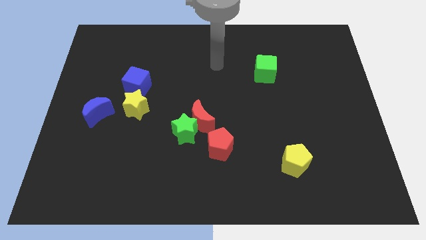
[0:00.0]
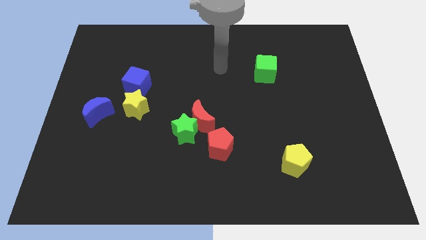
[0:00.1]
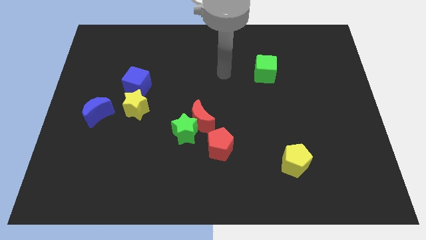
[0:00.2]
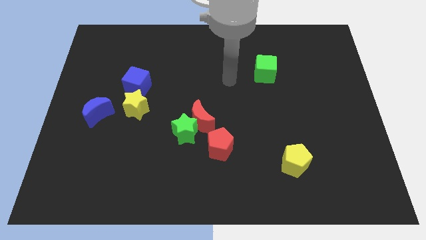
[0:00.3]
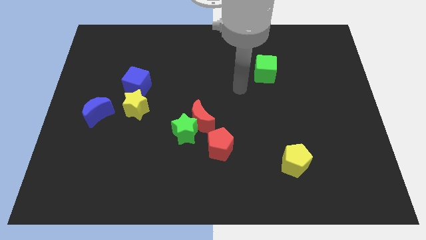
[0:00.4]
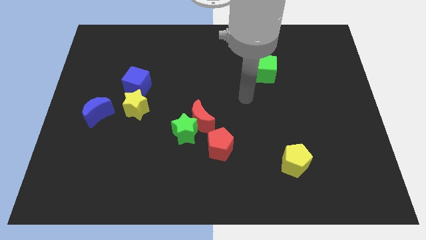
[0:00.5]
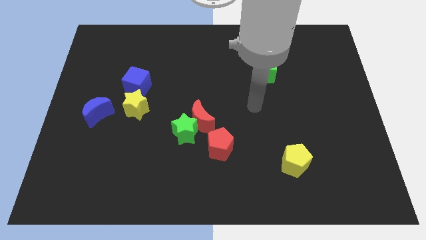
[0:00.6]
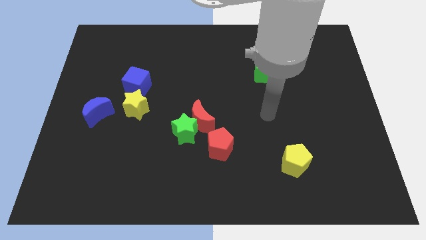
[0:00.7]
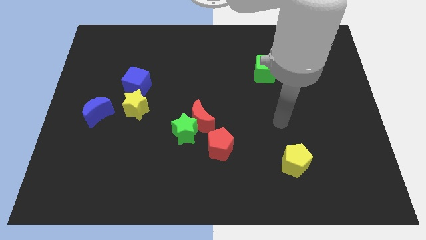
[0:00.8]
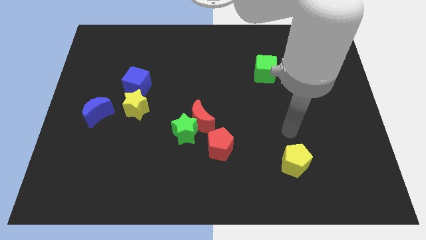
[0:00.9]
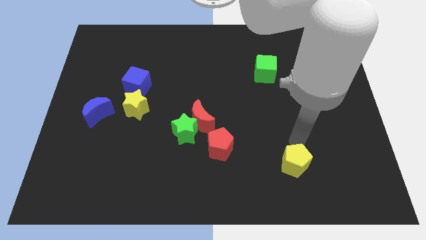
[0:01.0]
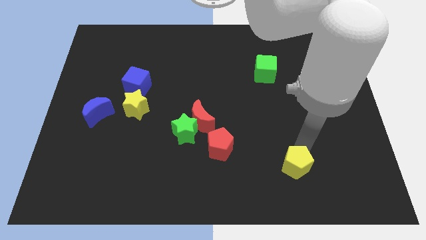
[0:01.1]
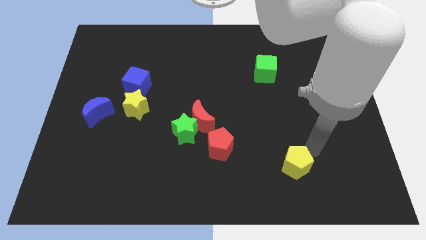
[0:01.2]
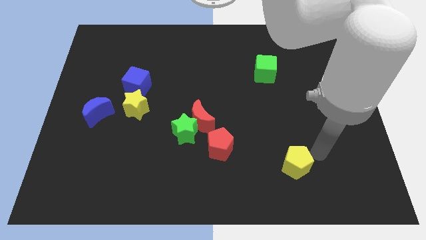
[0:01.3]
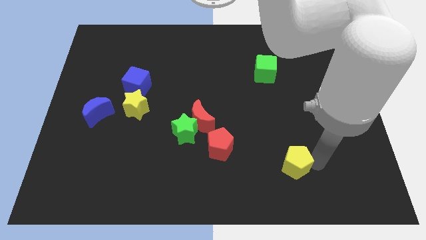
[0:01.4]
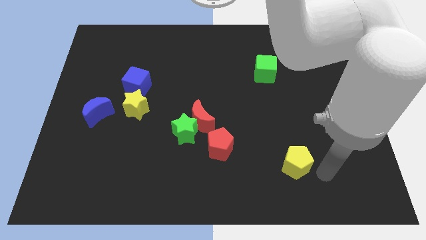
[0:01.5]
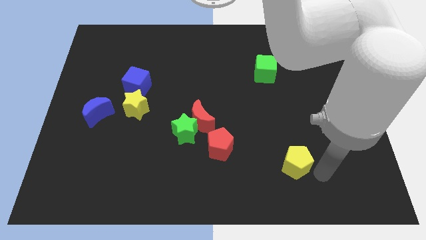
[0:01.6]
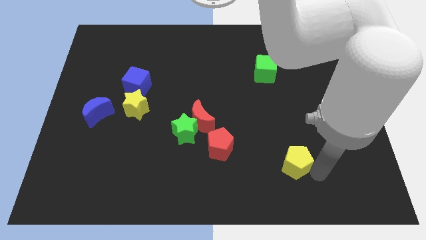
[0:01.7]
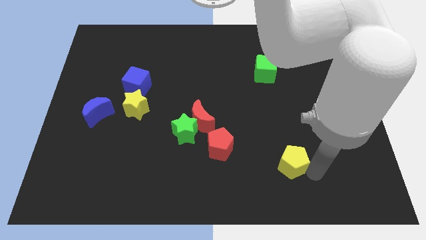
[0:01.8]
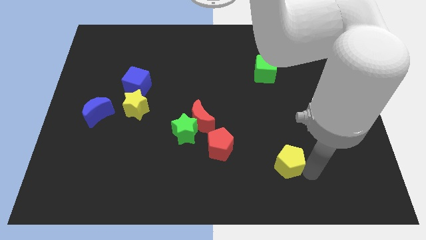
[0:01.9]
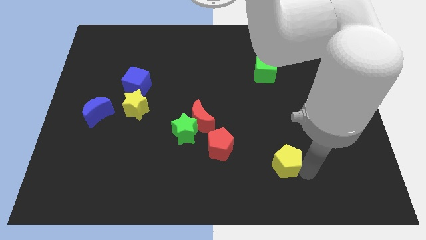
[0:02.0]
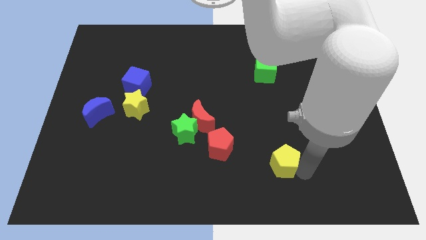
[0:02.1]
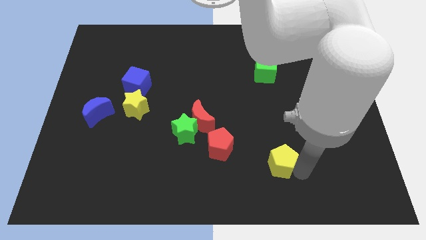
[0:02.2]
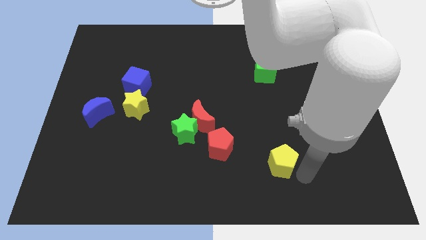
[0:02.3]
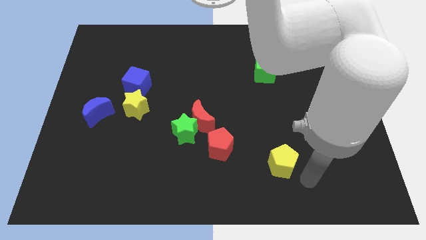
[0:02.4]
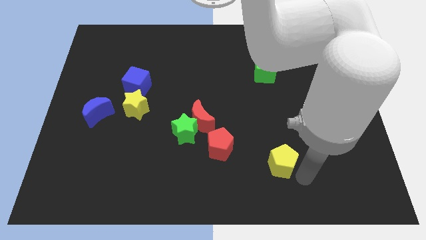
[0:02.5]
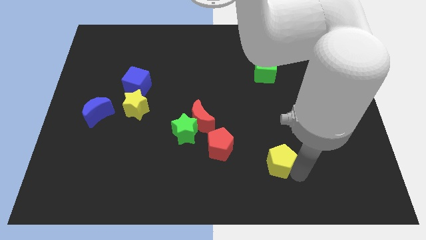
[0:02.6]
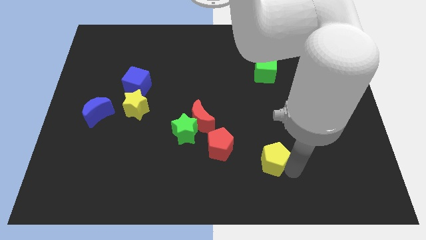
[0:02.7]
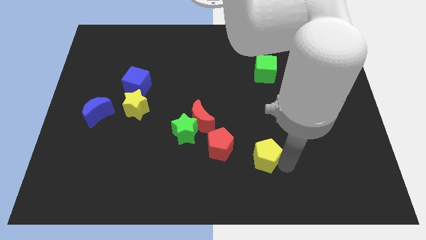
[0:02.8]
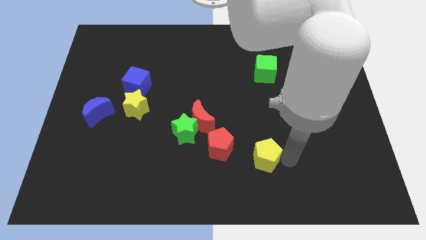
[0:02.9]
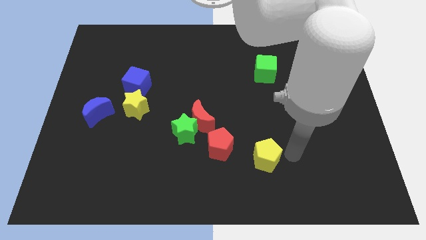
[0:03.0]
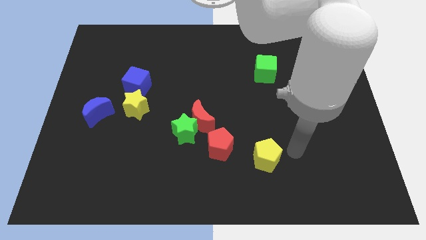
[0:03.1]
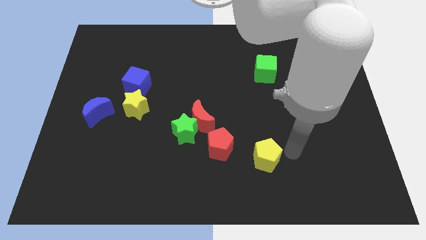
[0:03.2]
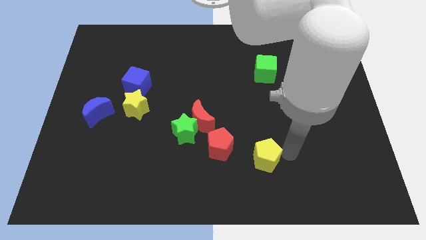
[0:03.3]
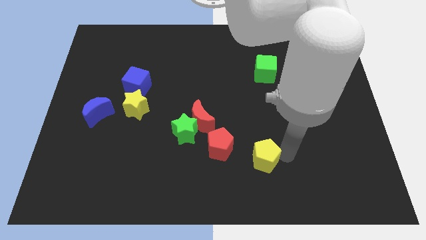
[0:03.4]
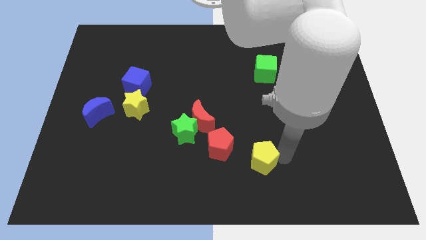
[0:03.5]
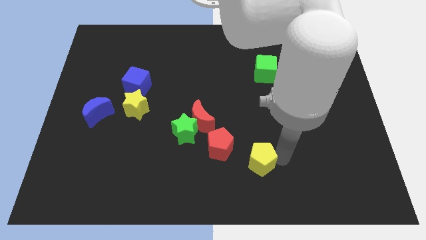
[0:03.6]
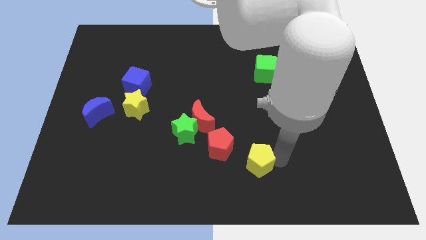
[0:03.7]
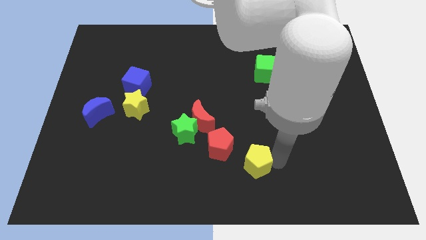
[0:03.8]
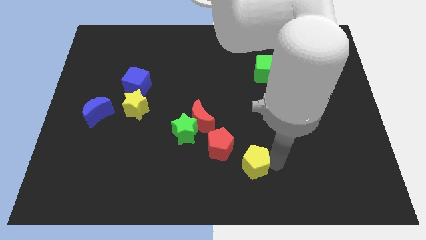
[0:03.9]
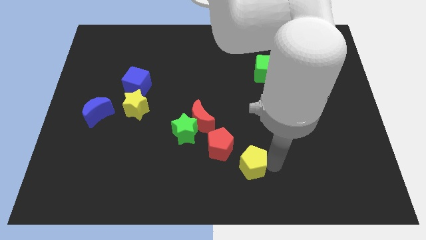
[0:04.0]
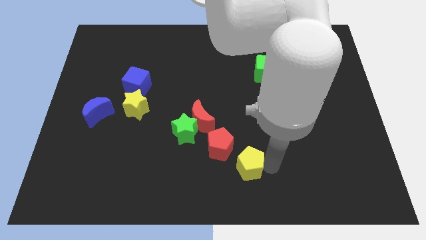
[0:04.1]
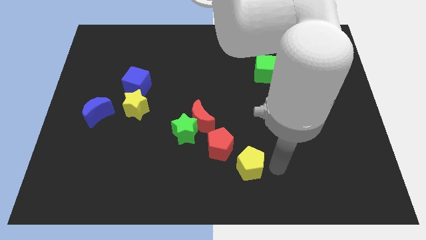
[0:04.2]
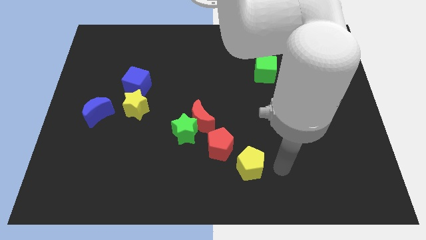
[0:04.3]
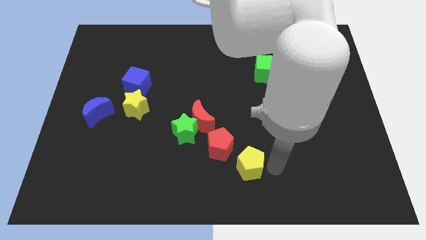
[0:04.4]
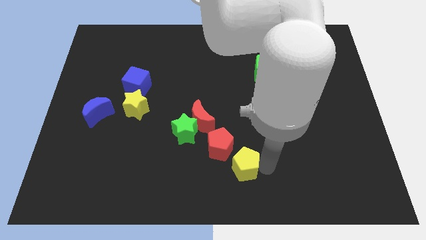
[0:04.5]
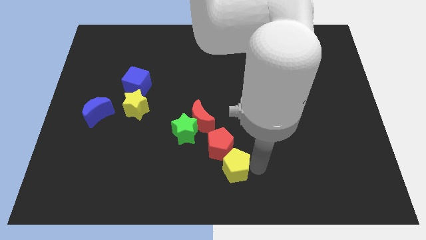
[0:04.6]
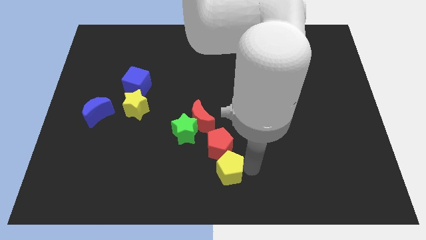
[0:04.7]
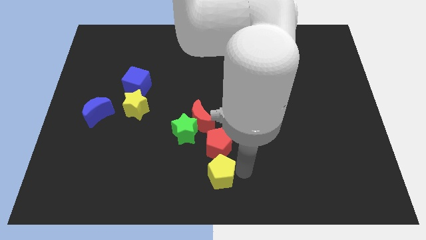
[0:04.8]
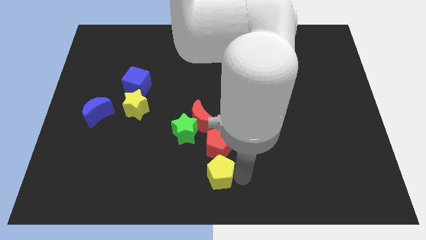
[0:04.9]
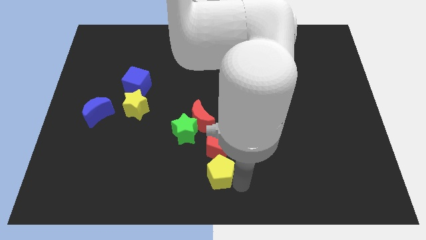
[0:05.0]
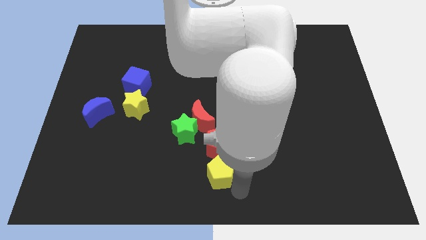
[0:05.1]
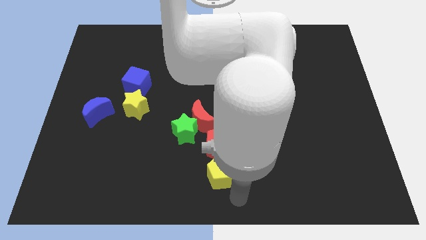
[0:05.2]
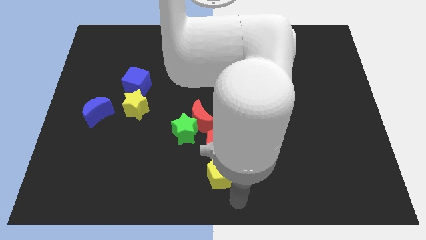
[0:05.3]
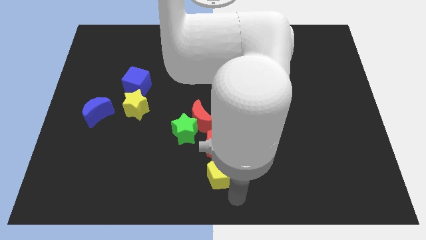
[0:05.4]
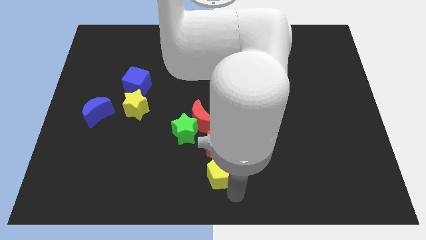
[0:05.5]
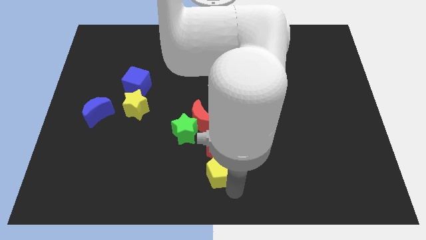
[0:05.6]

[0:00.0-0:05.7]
put the yellow pentagon to the bottom right of the green star
